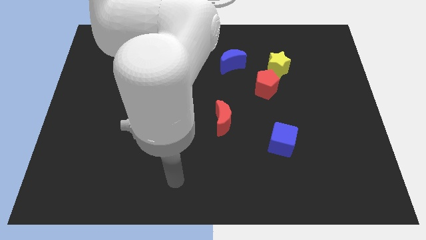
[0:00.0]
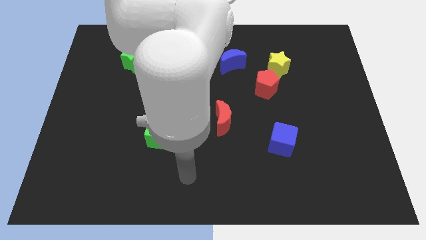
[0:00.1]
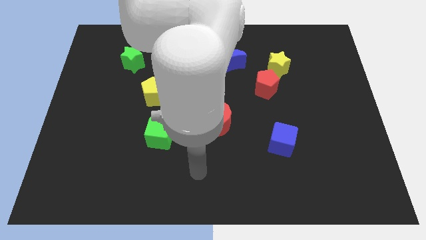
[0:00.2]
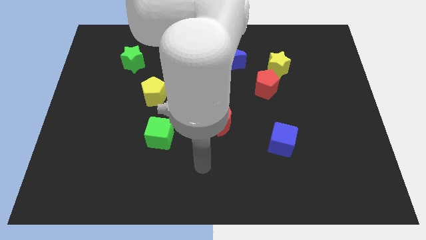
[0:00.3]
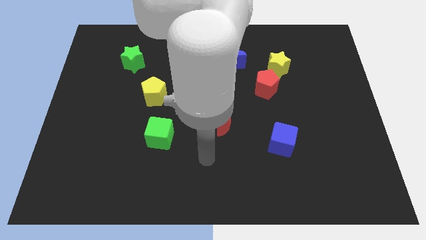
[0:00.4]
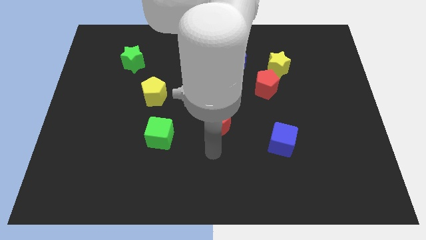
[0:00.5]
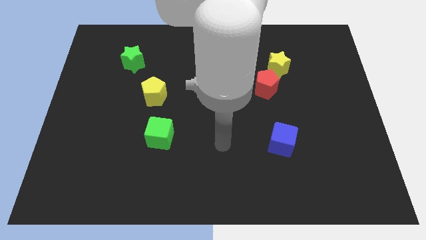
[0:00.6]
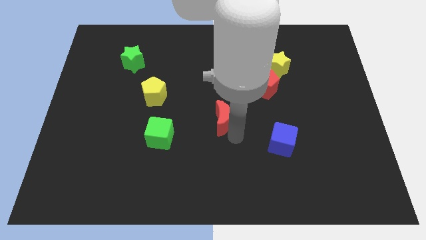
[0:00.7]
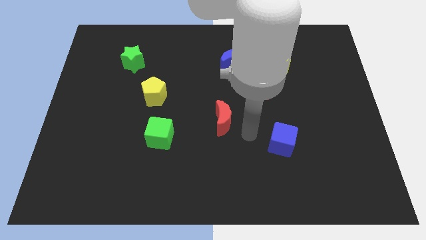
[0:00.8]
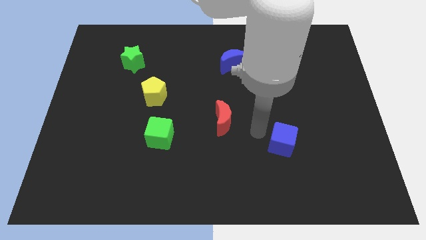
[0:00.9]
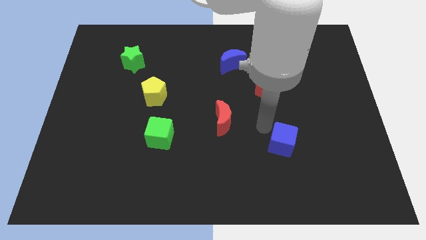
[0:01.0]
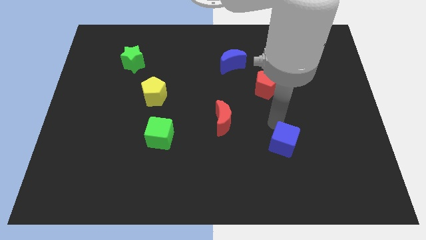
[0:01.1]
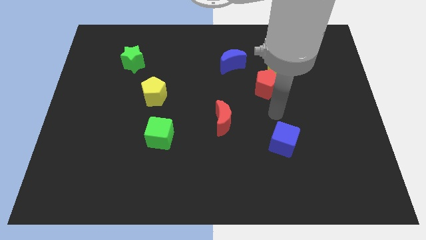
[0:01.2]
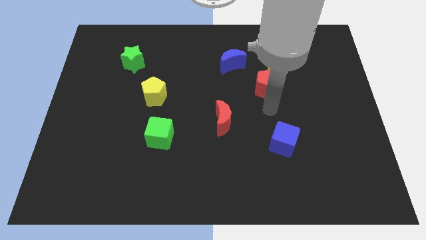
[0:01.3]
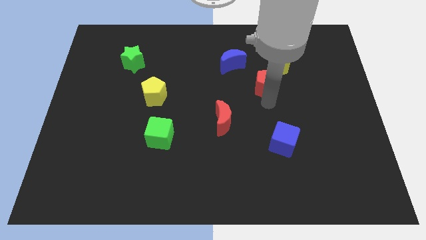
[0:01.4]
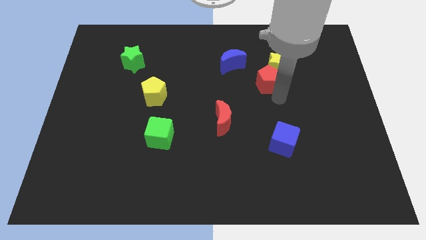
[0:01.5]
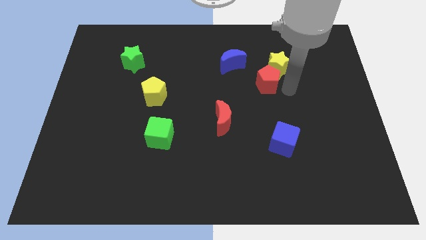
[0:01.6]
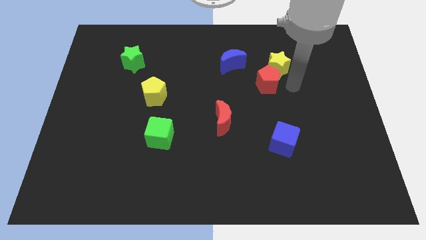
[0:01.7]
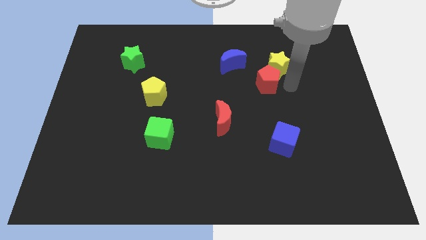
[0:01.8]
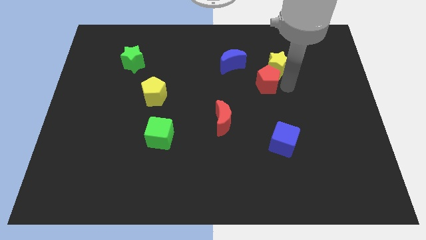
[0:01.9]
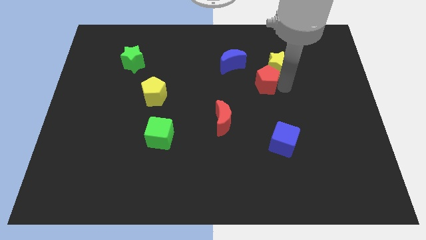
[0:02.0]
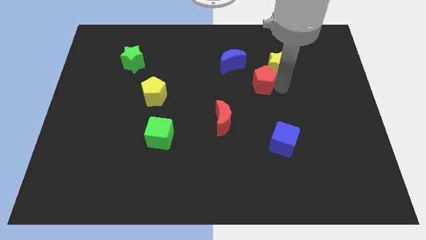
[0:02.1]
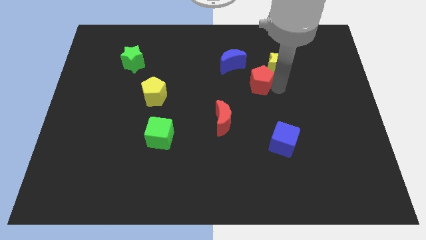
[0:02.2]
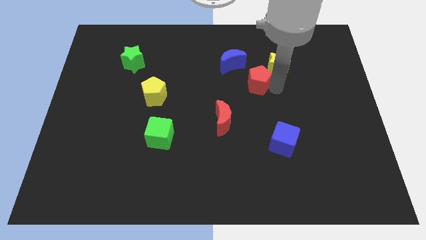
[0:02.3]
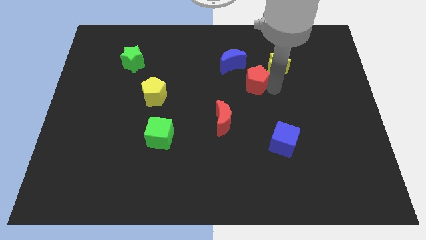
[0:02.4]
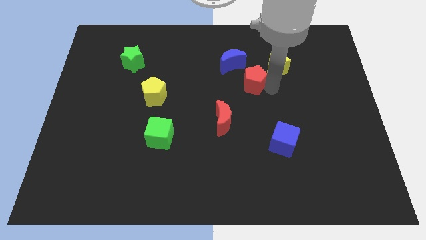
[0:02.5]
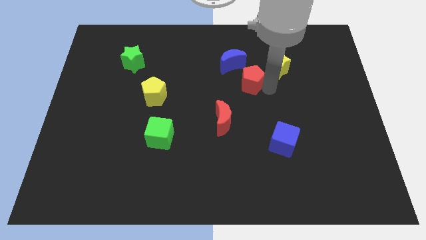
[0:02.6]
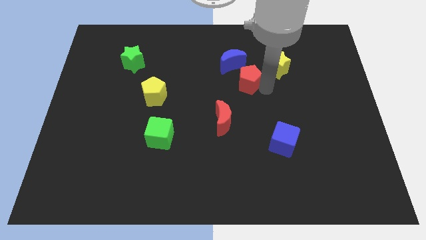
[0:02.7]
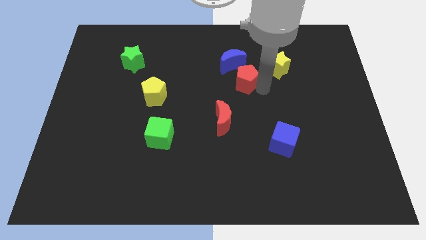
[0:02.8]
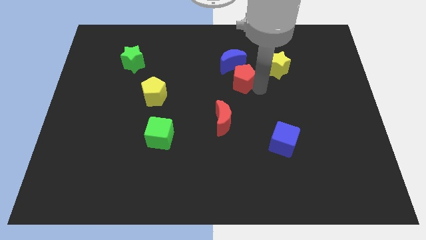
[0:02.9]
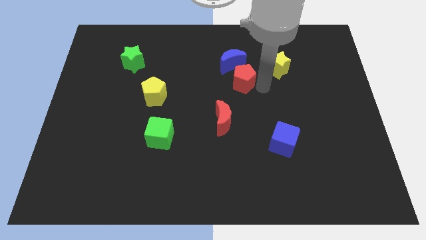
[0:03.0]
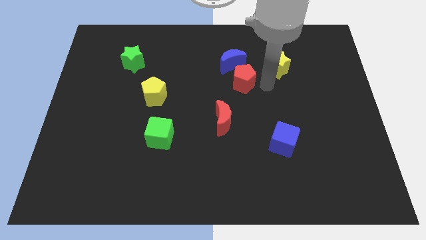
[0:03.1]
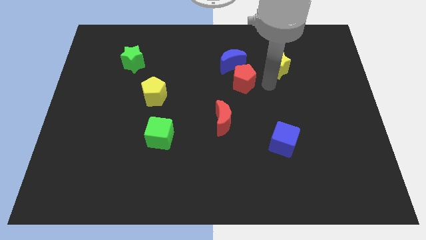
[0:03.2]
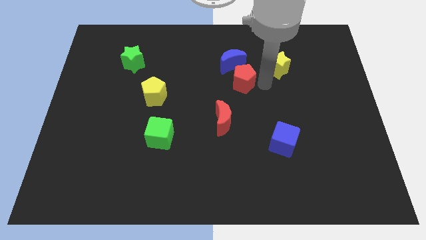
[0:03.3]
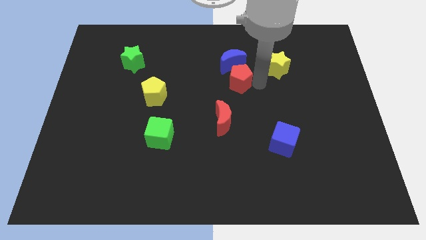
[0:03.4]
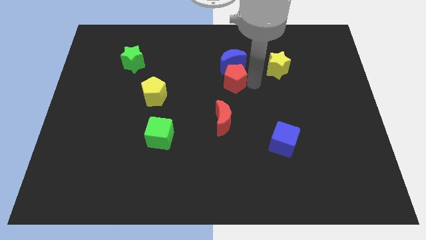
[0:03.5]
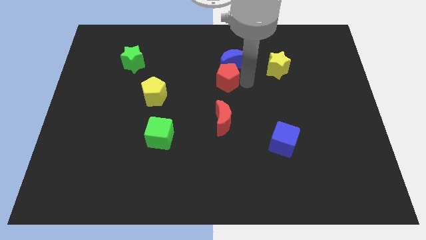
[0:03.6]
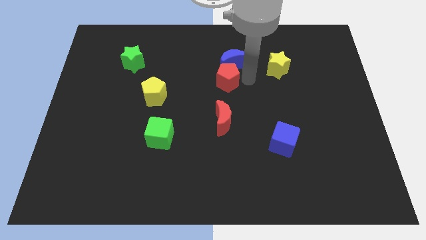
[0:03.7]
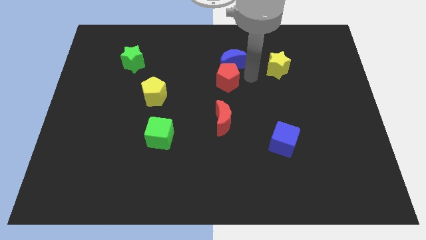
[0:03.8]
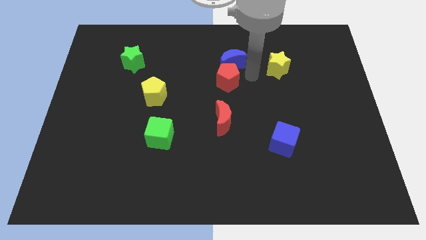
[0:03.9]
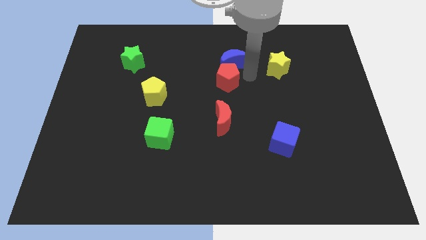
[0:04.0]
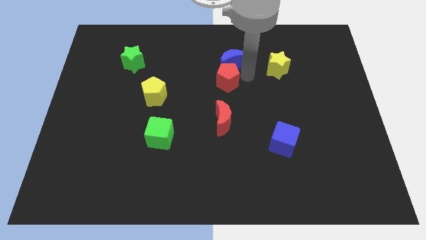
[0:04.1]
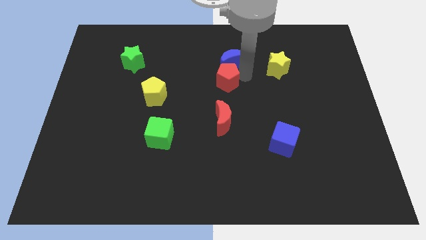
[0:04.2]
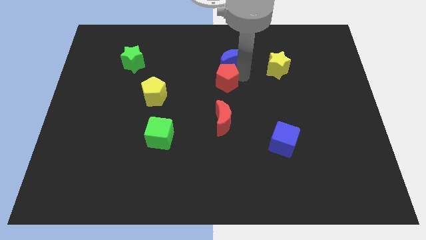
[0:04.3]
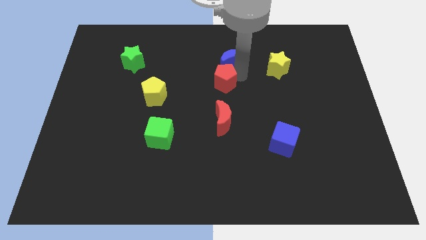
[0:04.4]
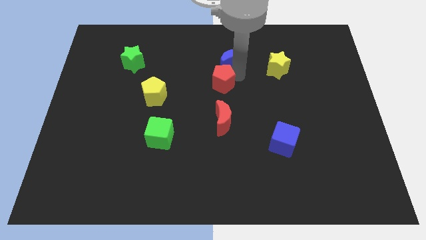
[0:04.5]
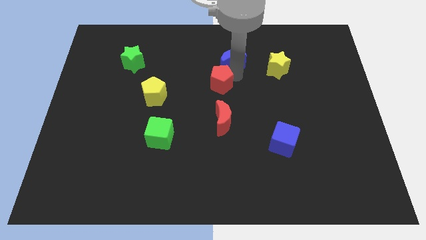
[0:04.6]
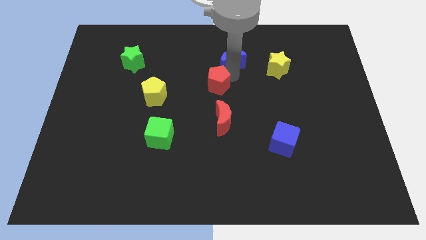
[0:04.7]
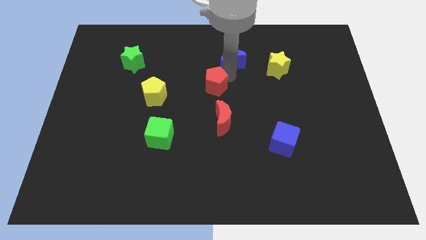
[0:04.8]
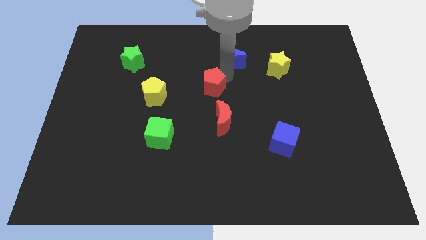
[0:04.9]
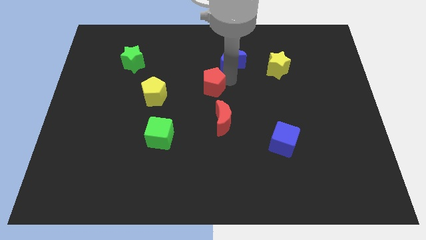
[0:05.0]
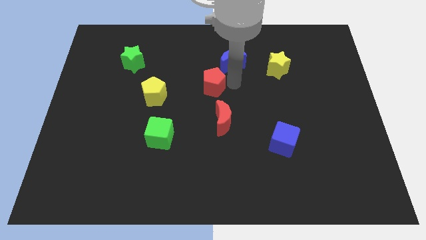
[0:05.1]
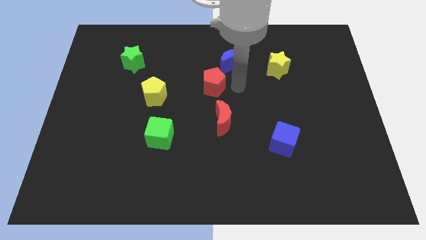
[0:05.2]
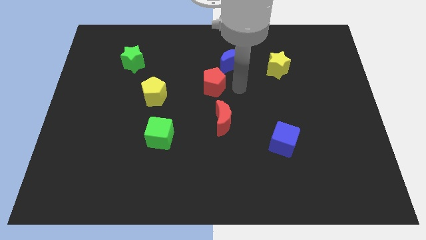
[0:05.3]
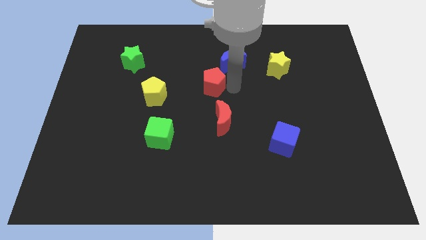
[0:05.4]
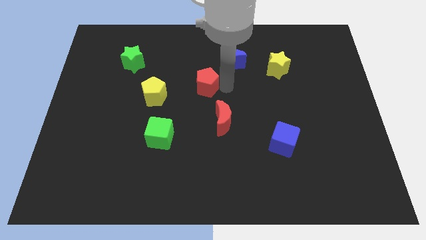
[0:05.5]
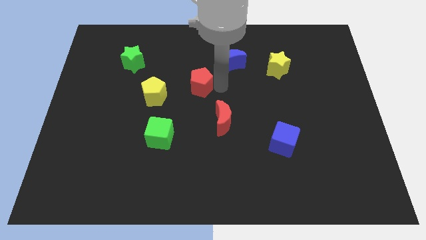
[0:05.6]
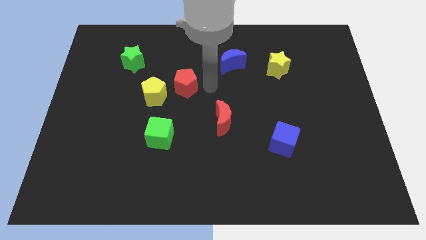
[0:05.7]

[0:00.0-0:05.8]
move the red pentagon left

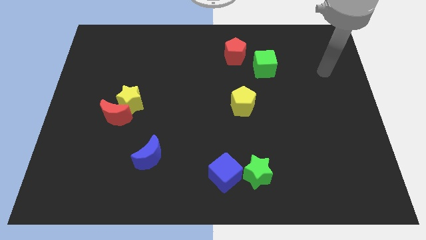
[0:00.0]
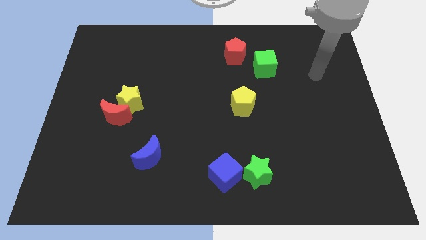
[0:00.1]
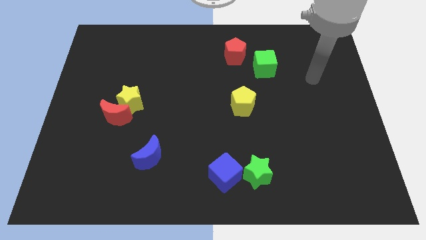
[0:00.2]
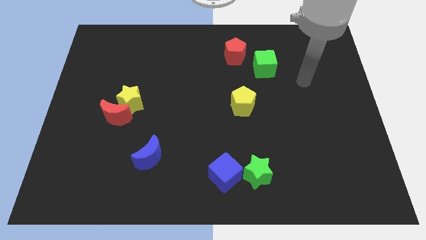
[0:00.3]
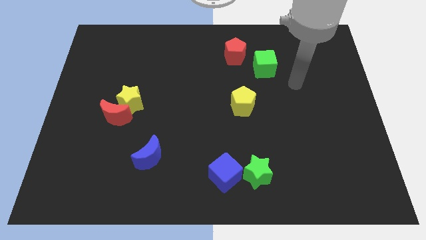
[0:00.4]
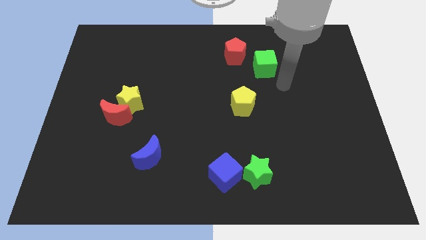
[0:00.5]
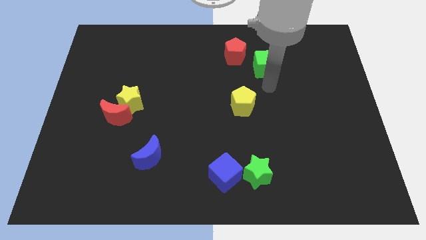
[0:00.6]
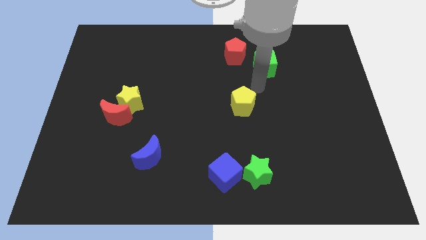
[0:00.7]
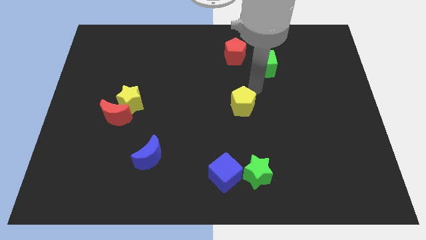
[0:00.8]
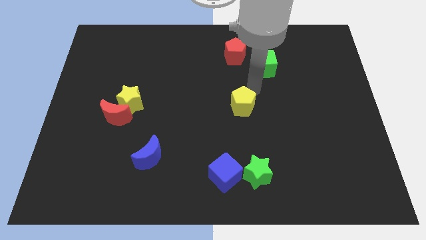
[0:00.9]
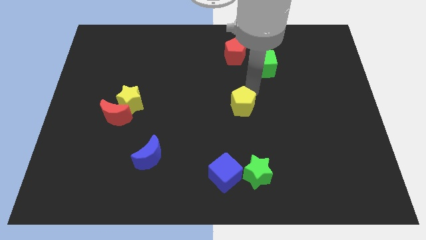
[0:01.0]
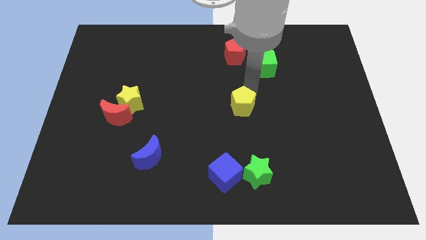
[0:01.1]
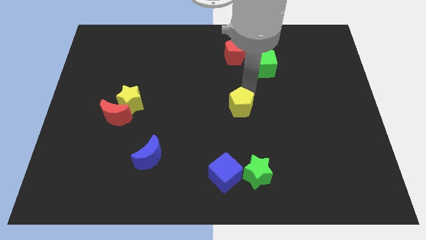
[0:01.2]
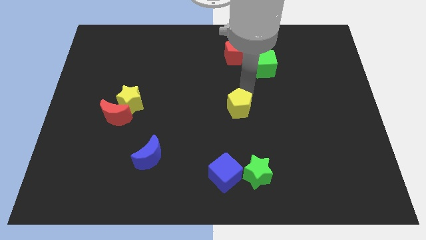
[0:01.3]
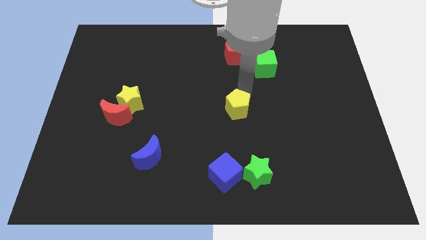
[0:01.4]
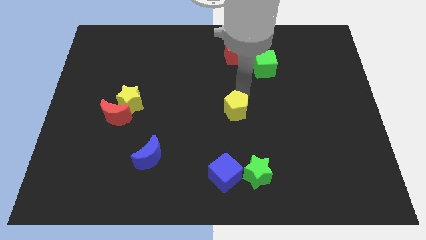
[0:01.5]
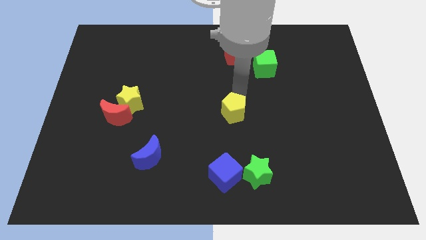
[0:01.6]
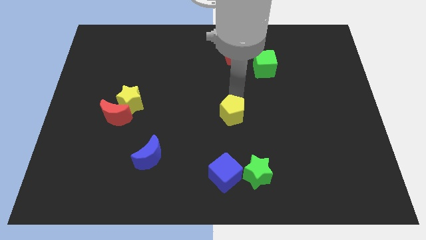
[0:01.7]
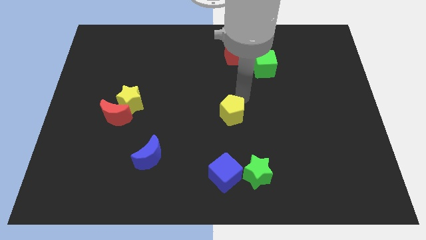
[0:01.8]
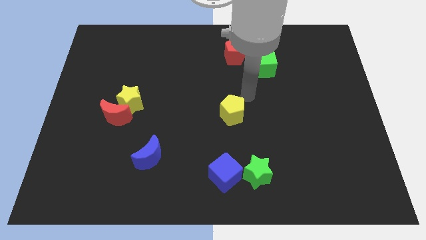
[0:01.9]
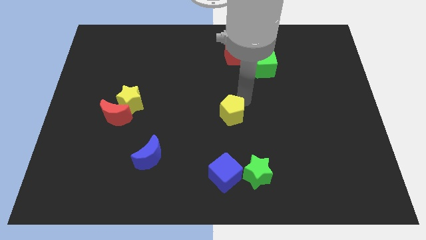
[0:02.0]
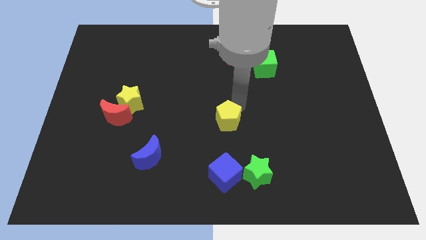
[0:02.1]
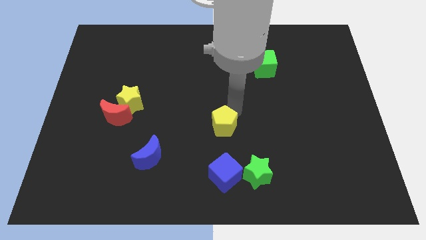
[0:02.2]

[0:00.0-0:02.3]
slide the yellow pentagon somewhat downwards and to the left

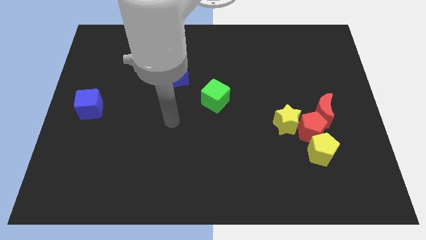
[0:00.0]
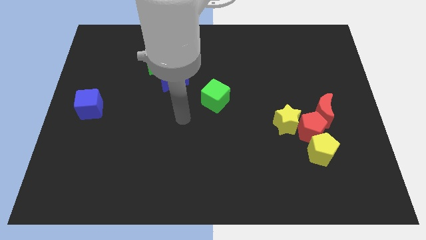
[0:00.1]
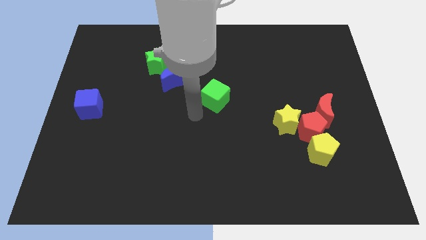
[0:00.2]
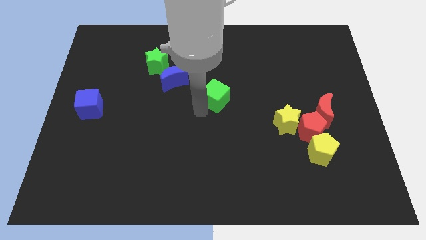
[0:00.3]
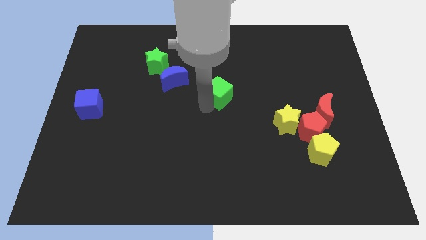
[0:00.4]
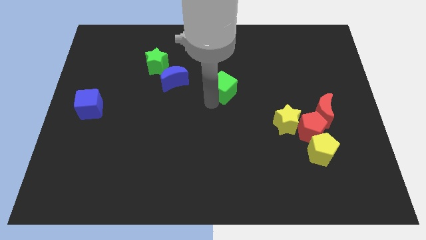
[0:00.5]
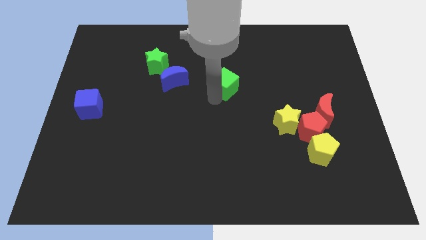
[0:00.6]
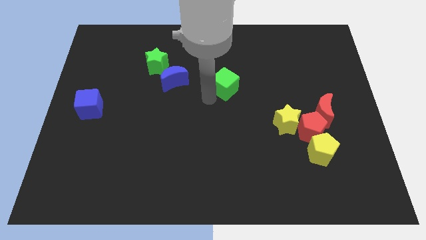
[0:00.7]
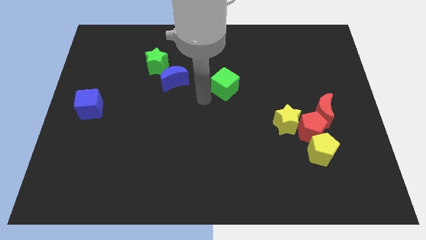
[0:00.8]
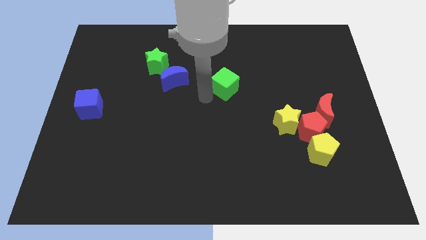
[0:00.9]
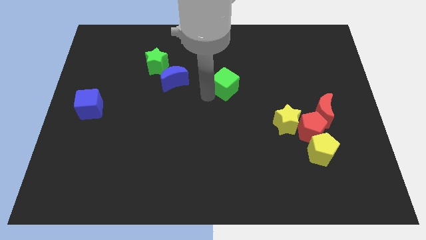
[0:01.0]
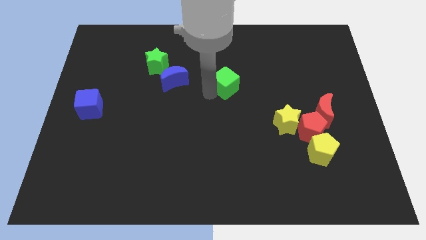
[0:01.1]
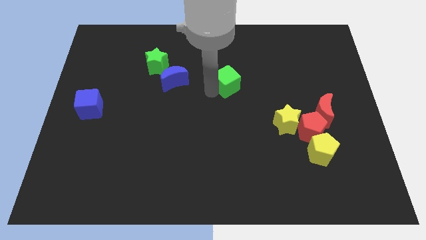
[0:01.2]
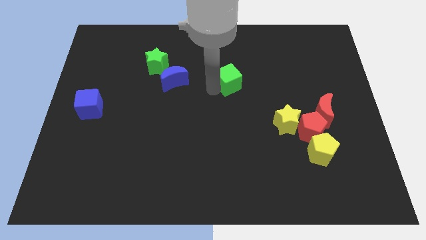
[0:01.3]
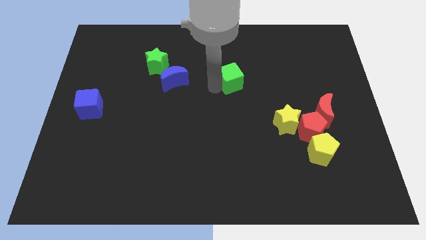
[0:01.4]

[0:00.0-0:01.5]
slightly push the green cube upwards and then right
